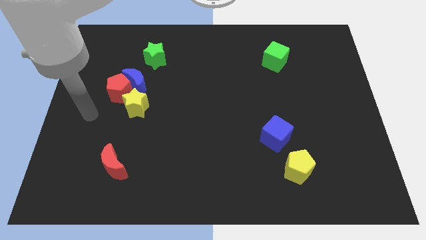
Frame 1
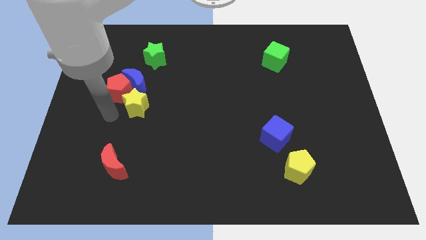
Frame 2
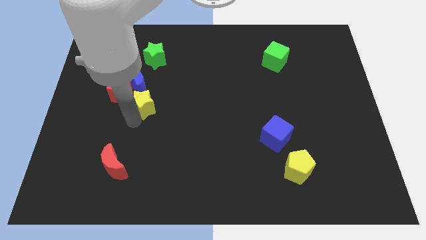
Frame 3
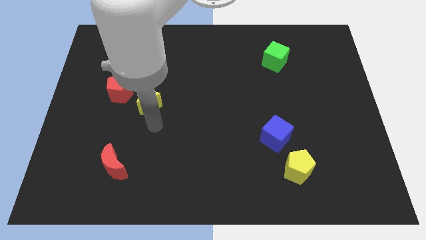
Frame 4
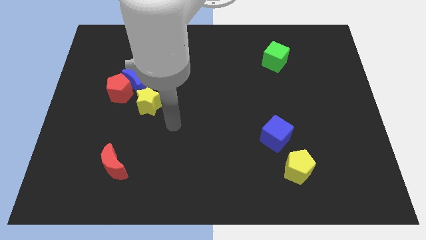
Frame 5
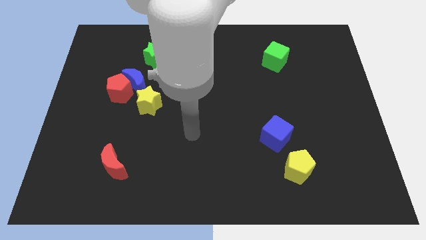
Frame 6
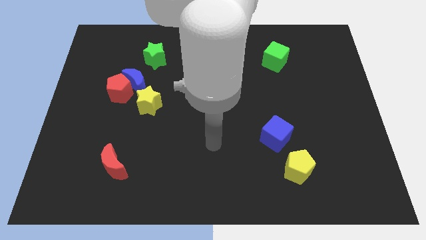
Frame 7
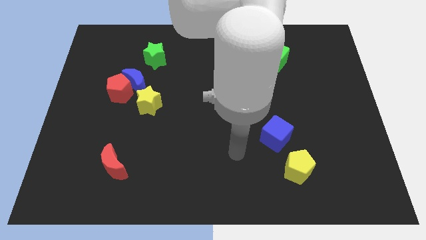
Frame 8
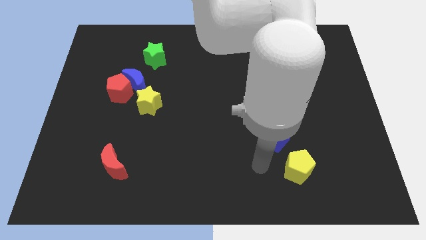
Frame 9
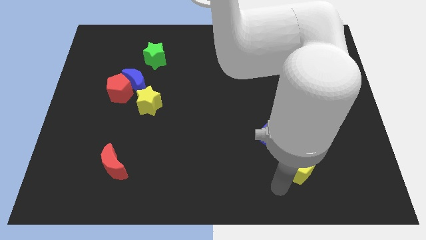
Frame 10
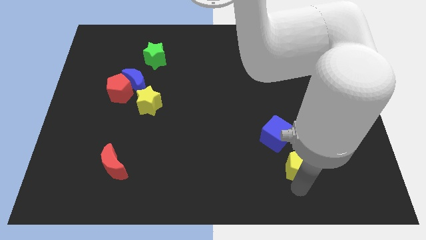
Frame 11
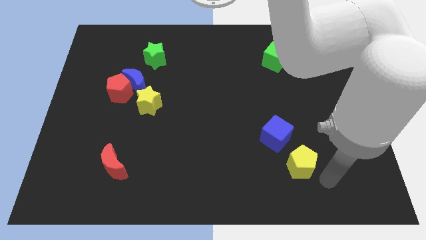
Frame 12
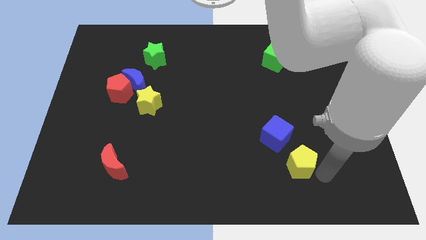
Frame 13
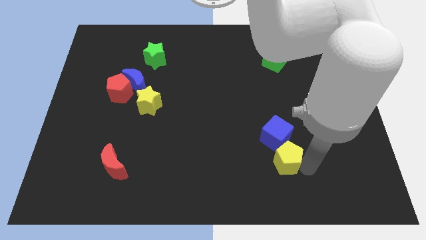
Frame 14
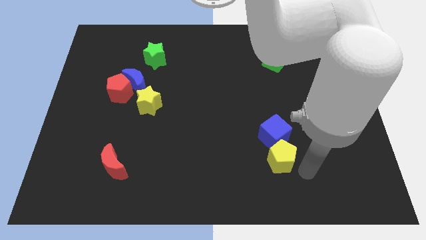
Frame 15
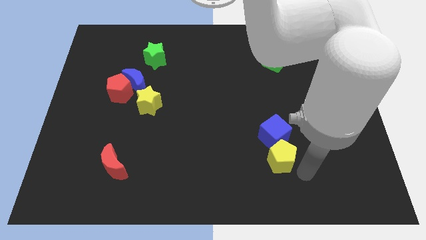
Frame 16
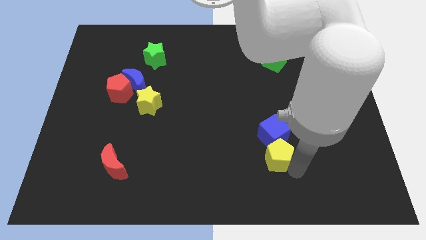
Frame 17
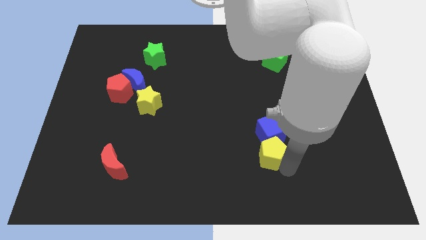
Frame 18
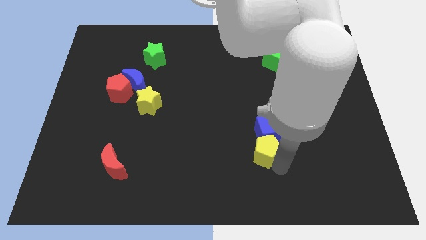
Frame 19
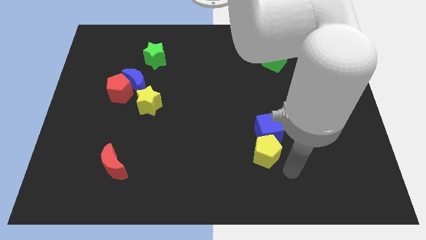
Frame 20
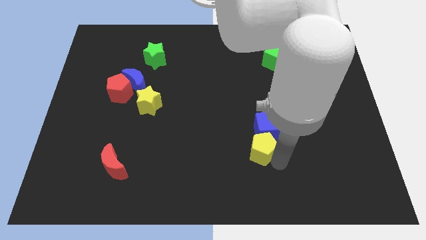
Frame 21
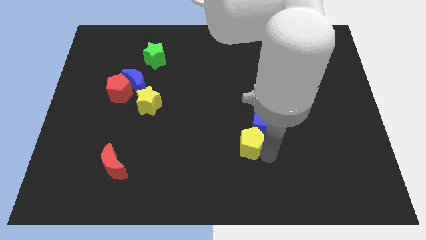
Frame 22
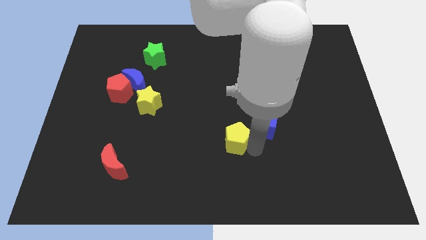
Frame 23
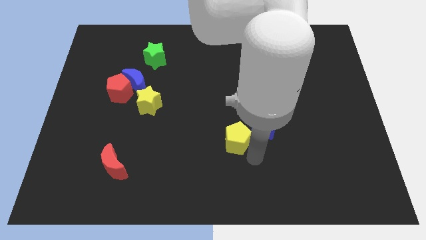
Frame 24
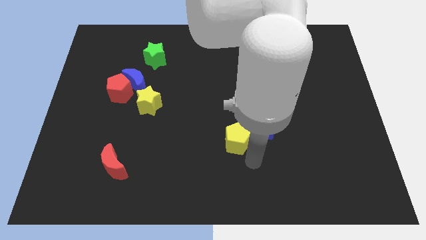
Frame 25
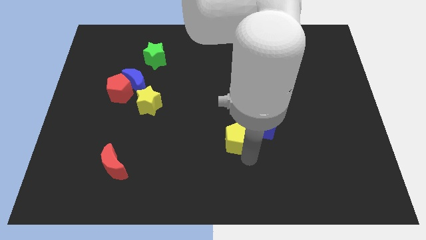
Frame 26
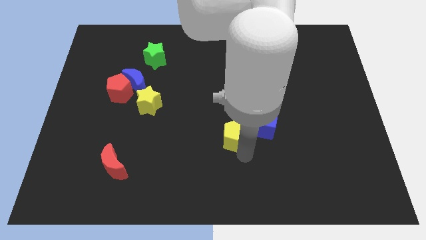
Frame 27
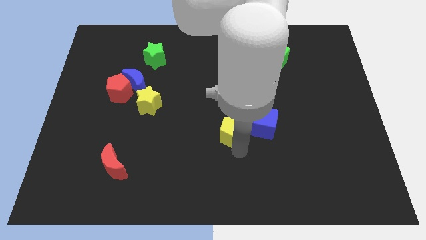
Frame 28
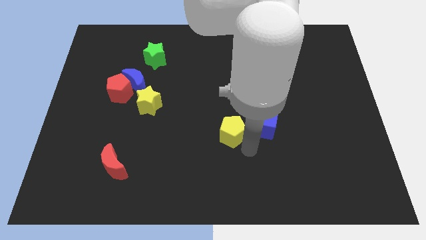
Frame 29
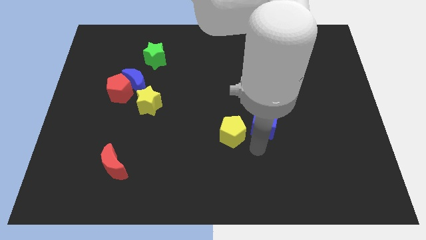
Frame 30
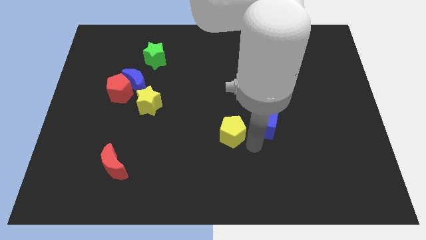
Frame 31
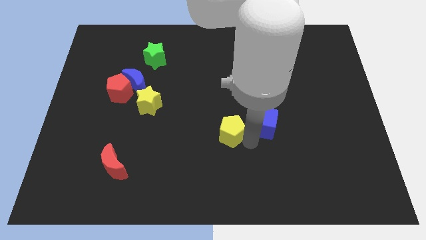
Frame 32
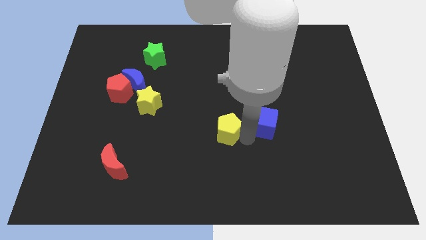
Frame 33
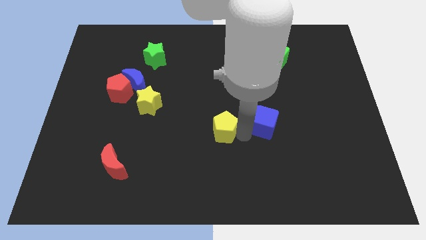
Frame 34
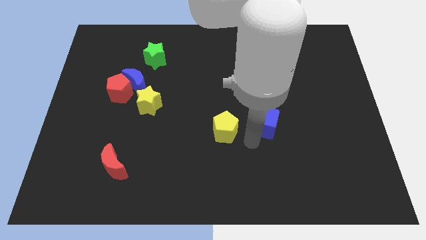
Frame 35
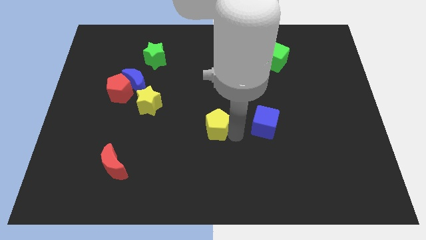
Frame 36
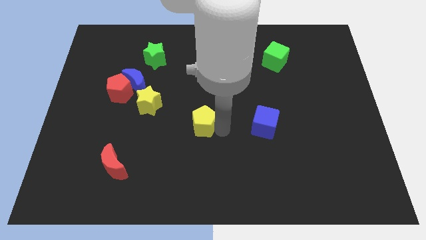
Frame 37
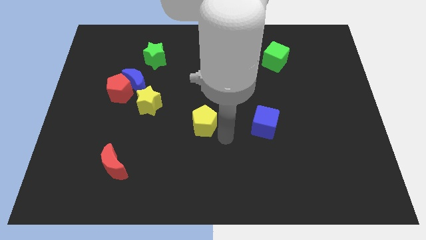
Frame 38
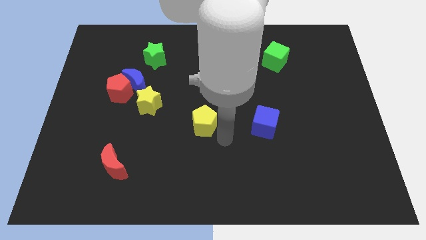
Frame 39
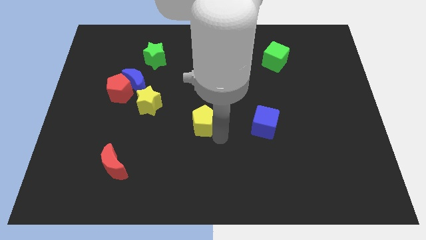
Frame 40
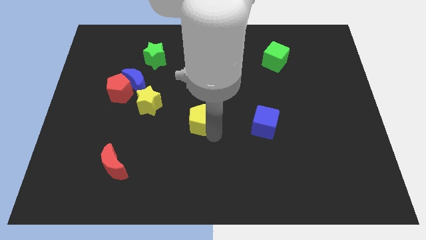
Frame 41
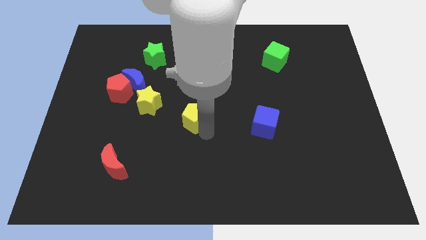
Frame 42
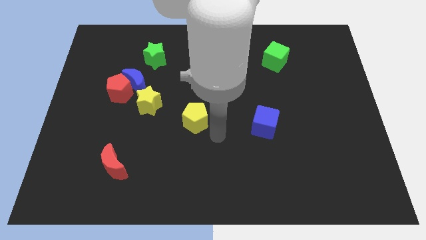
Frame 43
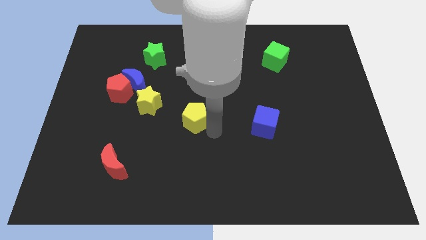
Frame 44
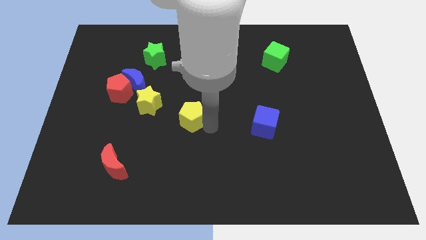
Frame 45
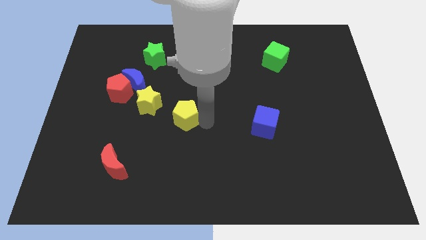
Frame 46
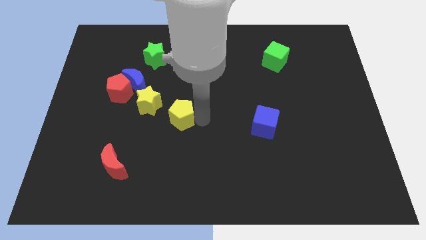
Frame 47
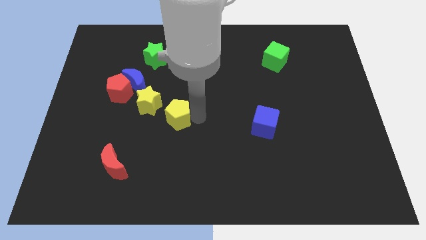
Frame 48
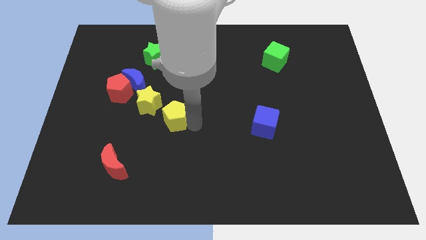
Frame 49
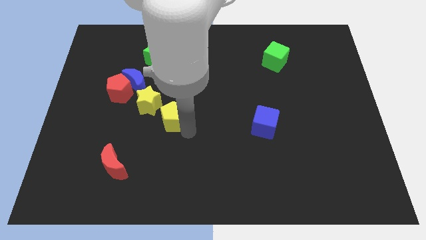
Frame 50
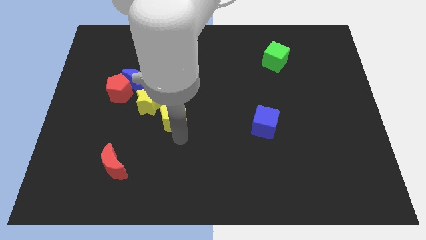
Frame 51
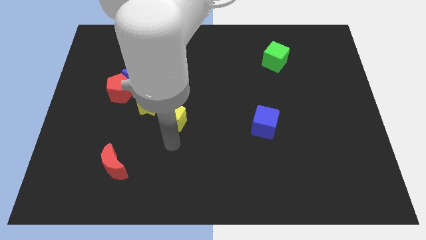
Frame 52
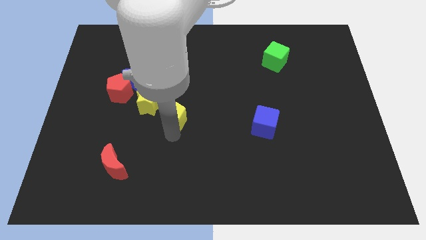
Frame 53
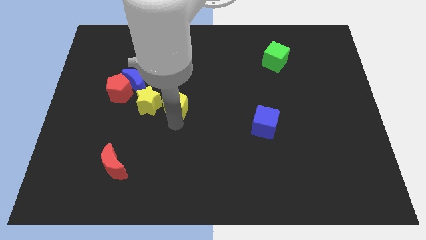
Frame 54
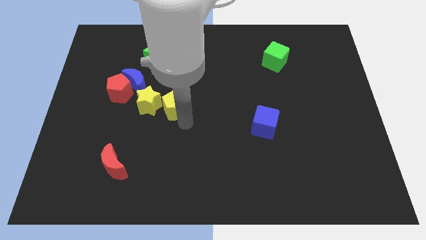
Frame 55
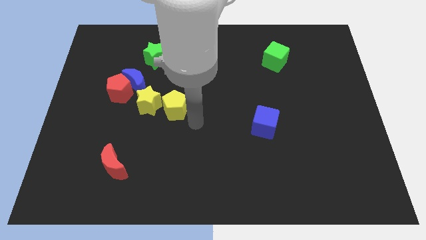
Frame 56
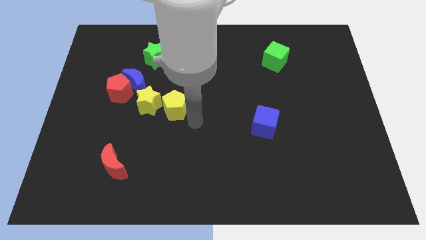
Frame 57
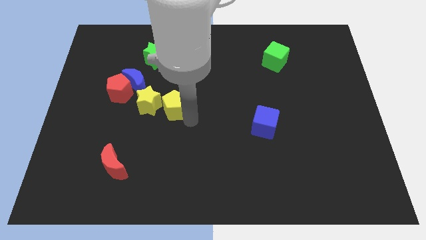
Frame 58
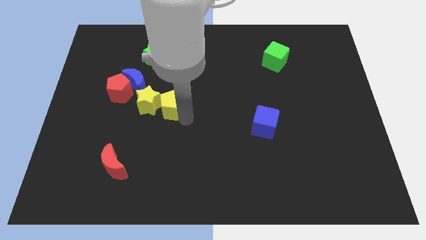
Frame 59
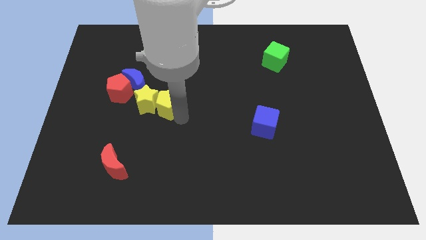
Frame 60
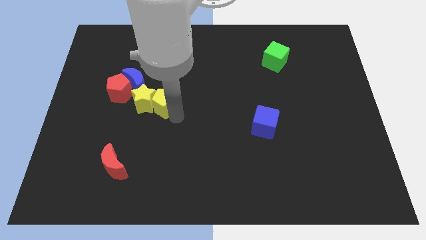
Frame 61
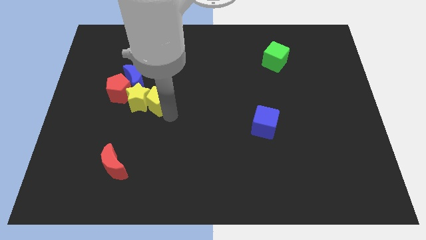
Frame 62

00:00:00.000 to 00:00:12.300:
put the yellow pentagon to the bottom of the green star

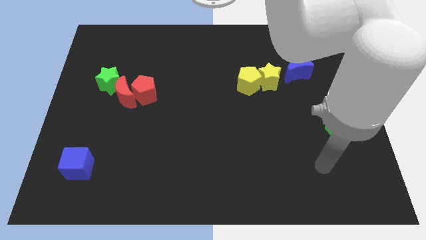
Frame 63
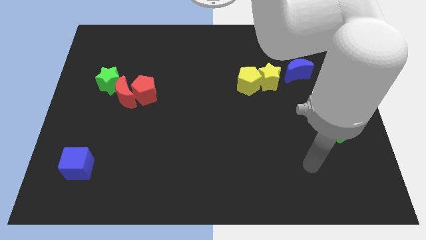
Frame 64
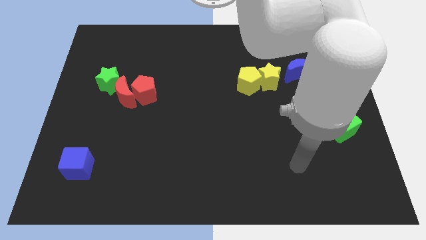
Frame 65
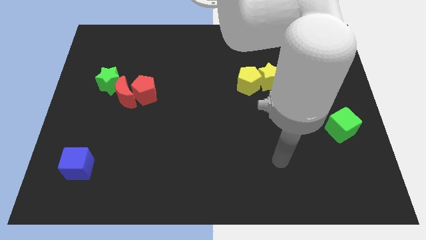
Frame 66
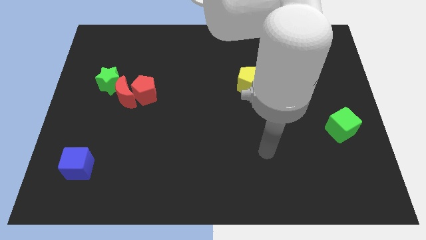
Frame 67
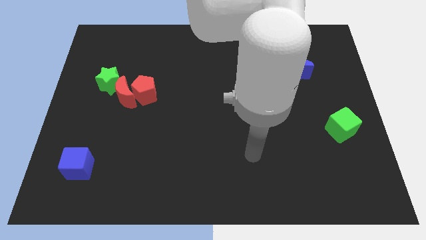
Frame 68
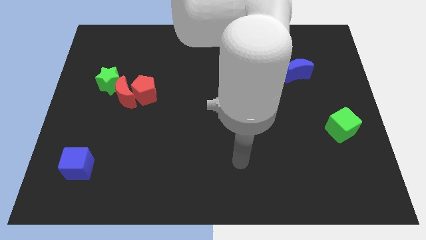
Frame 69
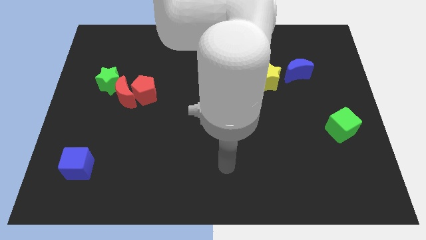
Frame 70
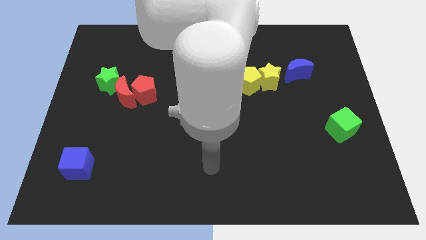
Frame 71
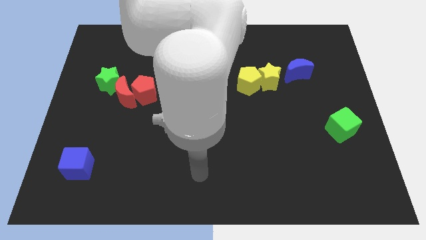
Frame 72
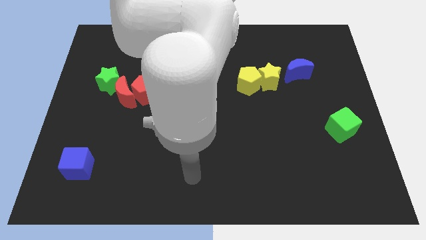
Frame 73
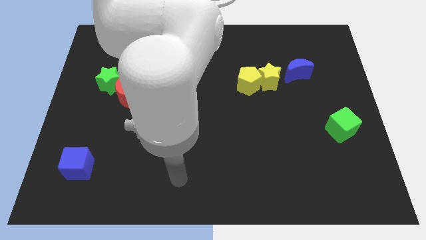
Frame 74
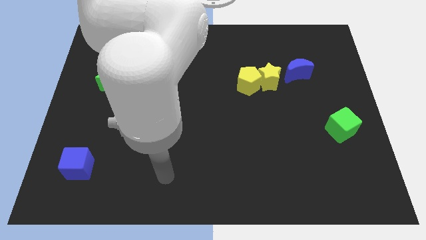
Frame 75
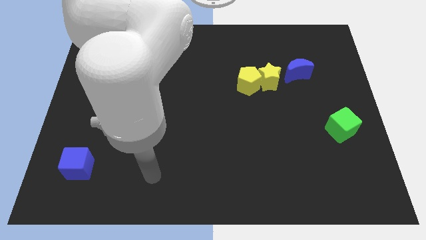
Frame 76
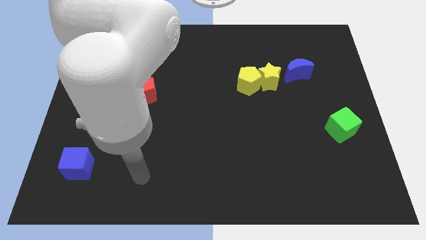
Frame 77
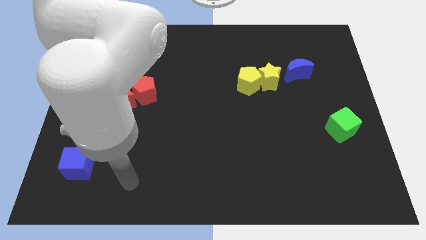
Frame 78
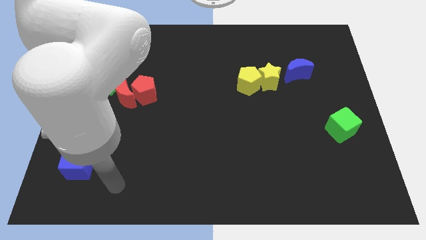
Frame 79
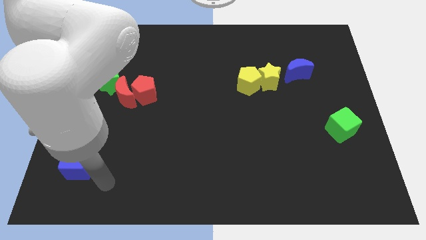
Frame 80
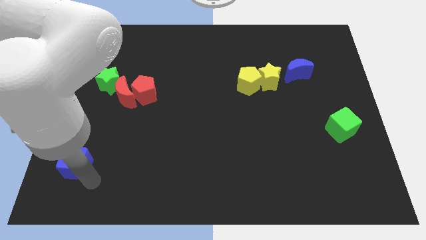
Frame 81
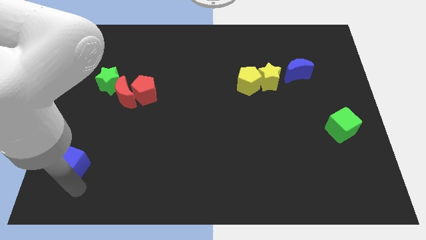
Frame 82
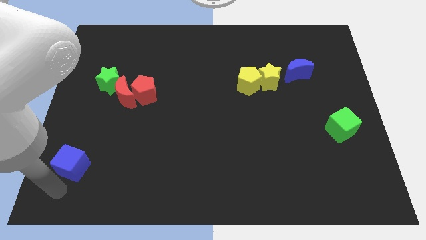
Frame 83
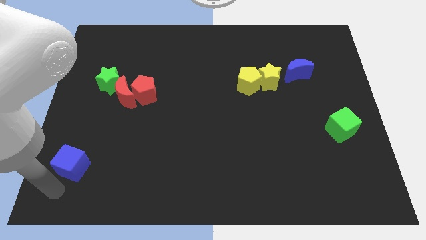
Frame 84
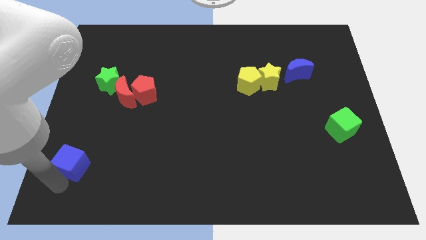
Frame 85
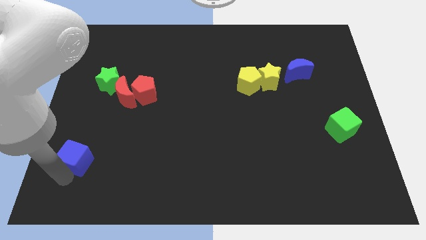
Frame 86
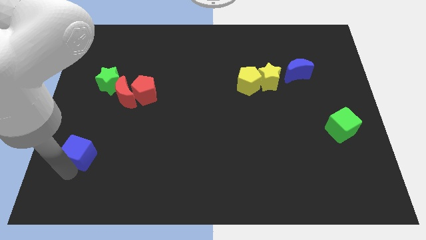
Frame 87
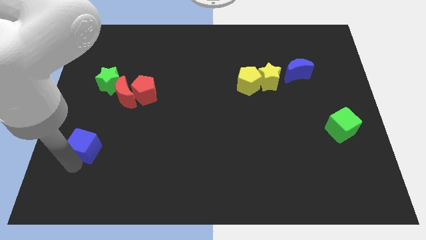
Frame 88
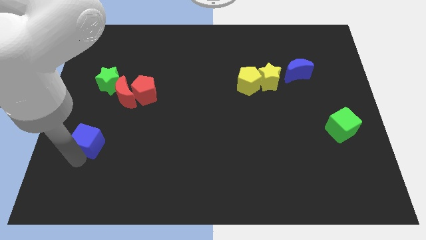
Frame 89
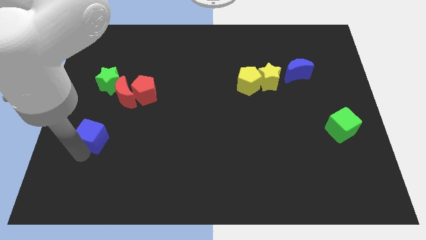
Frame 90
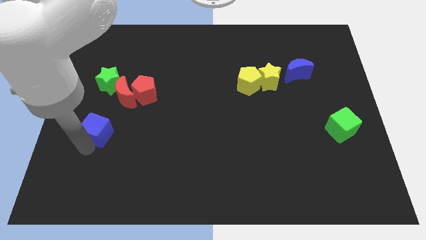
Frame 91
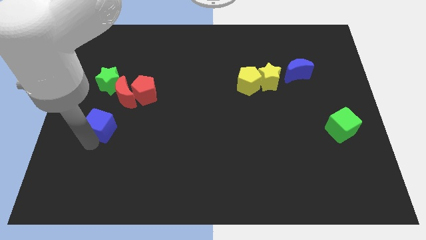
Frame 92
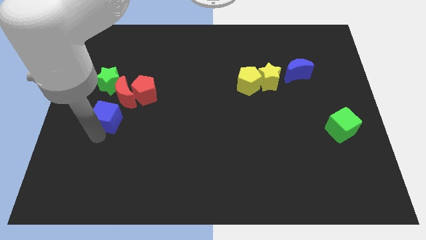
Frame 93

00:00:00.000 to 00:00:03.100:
put the blue cube diagonally down and to the left of the red pentagon
